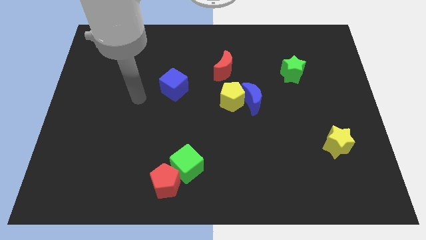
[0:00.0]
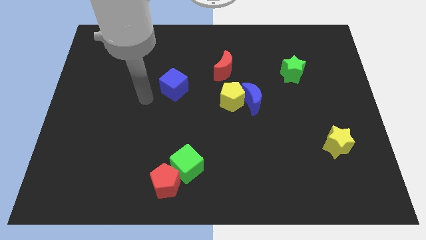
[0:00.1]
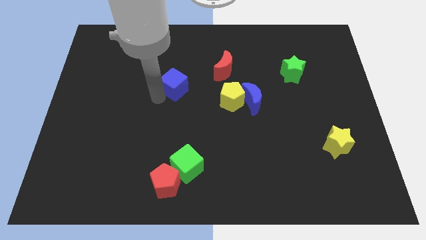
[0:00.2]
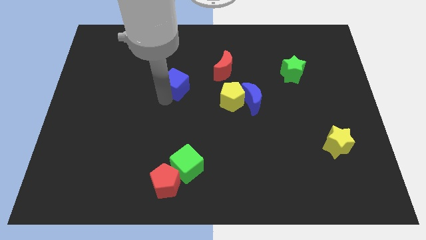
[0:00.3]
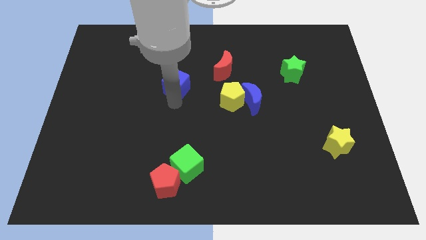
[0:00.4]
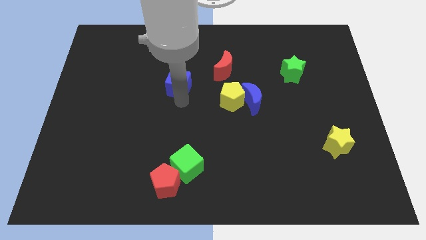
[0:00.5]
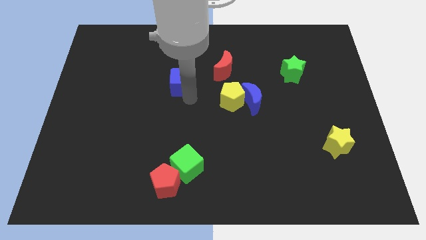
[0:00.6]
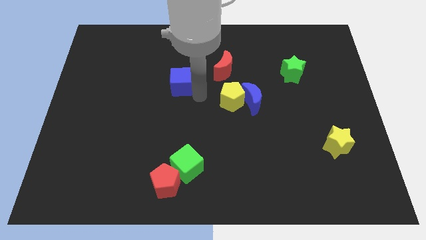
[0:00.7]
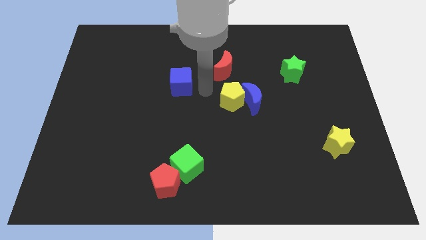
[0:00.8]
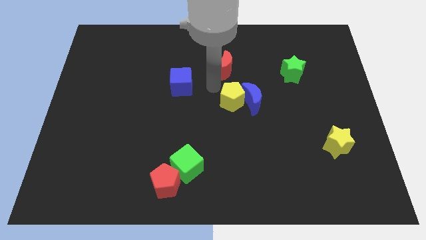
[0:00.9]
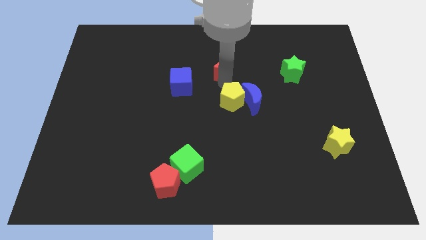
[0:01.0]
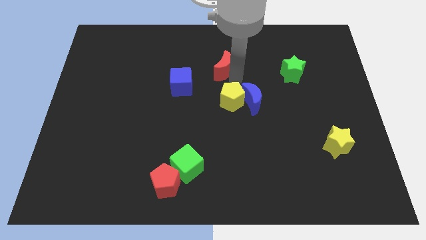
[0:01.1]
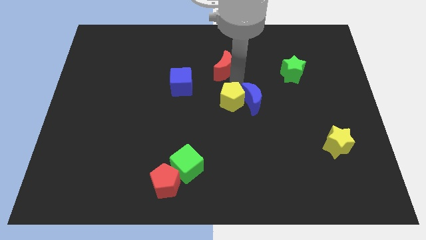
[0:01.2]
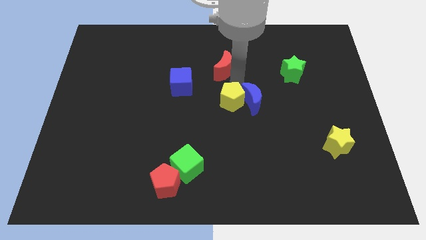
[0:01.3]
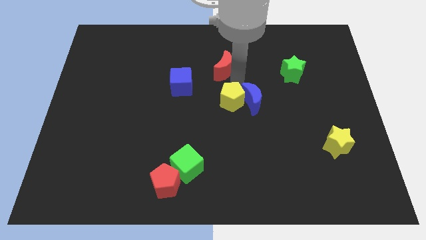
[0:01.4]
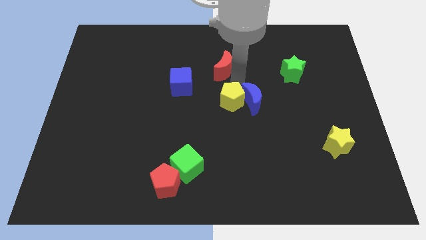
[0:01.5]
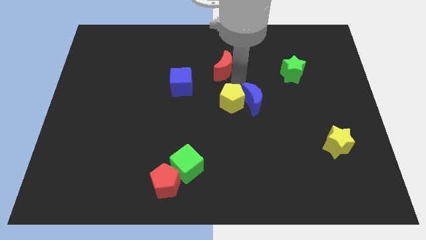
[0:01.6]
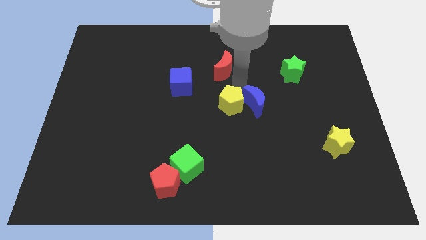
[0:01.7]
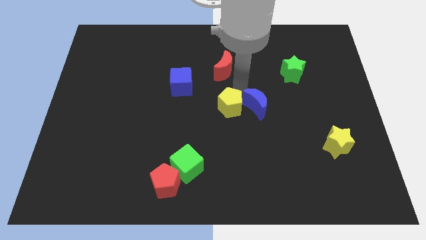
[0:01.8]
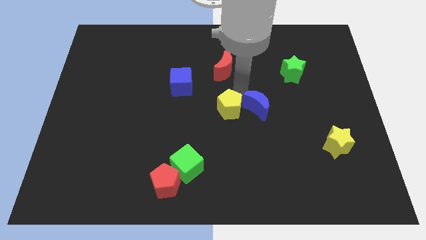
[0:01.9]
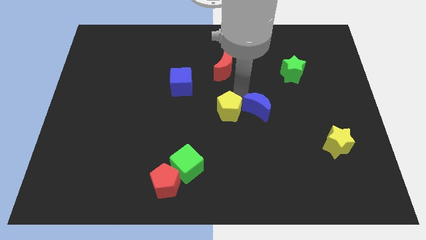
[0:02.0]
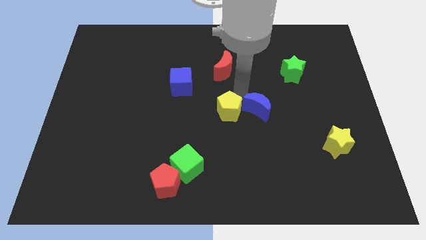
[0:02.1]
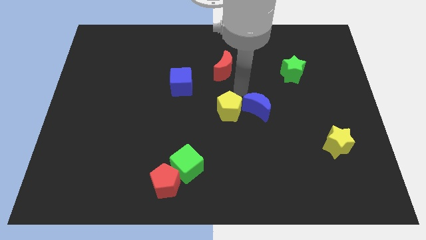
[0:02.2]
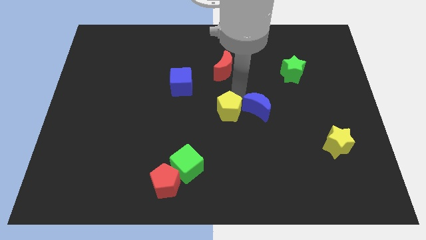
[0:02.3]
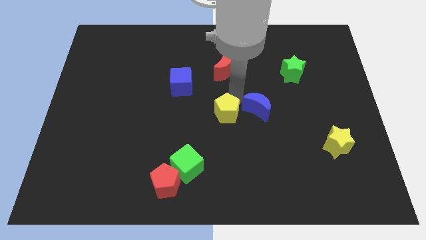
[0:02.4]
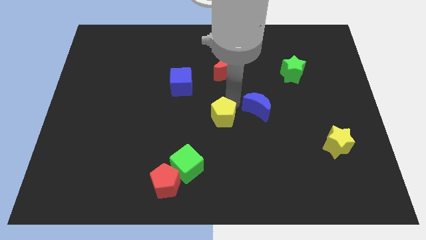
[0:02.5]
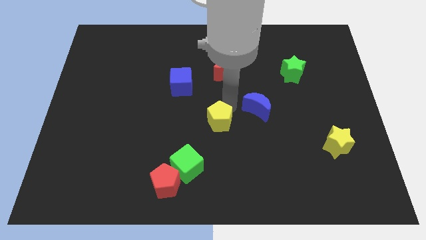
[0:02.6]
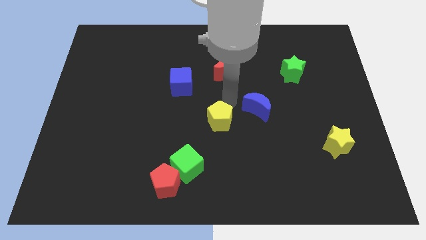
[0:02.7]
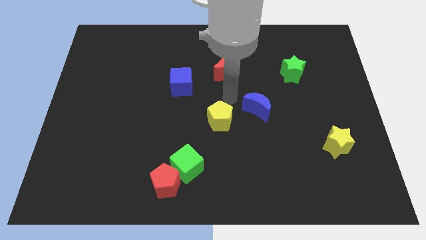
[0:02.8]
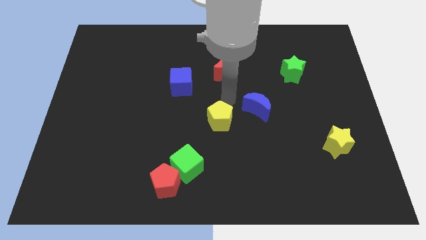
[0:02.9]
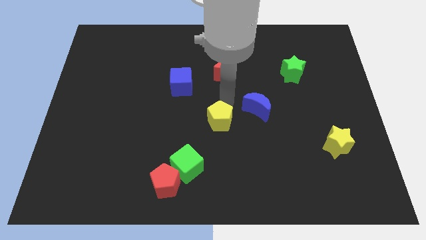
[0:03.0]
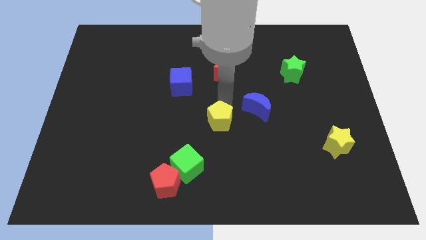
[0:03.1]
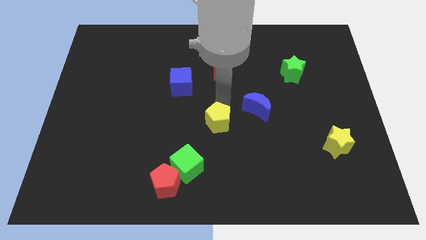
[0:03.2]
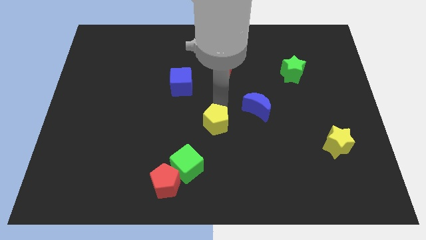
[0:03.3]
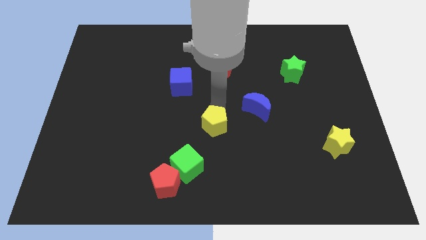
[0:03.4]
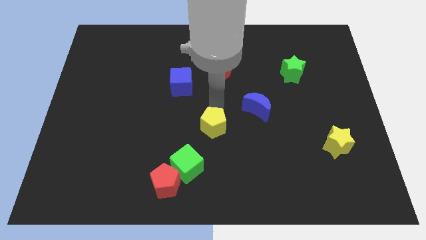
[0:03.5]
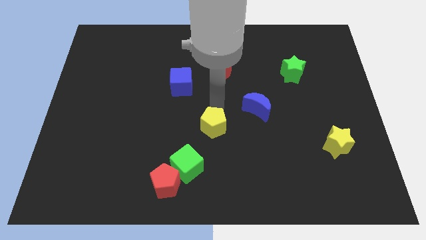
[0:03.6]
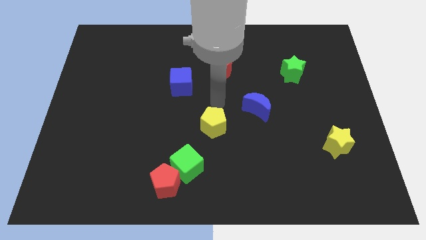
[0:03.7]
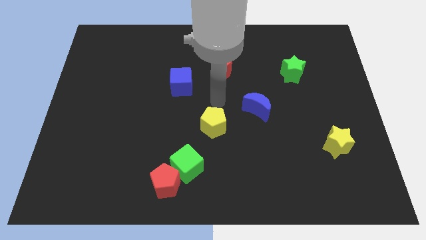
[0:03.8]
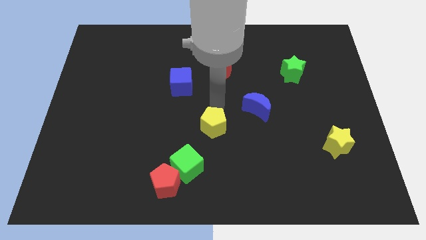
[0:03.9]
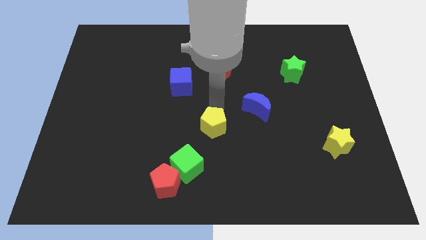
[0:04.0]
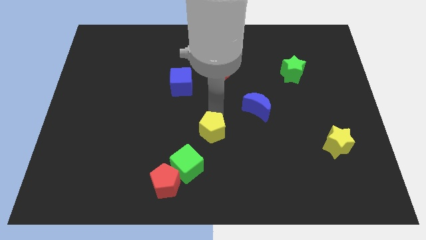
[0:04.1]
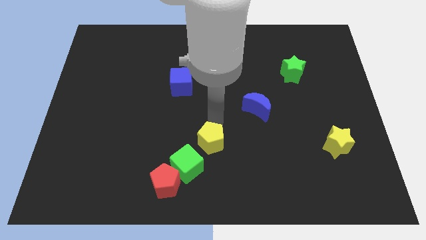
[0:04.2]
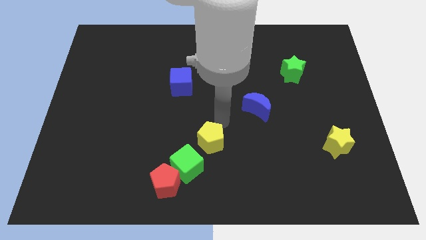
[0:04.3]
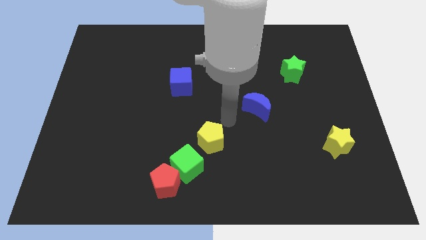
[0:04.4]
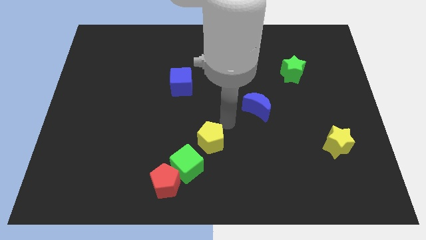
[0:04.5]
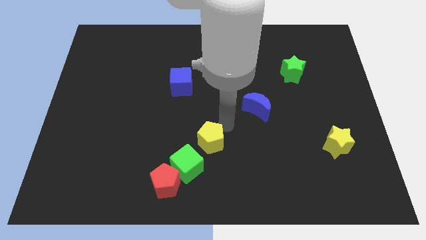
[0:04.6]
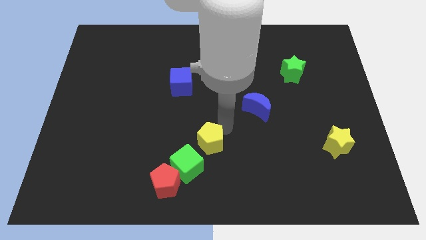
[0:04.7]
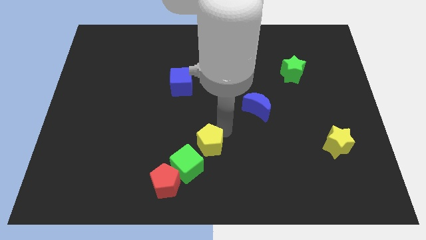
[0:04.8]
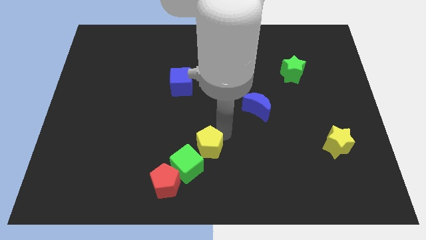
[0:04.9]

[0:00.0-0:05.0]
slide the yellow pentagon diagonally up and to the right of the red pentagon

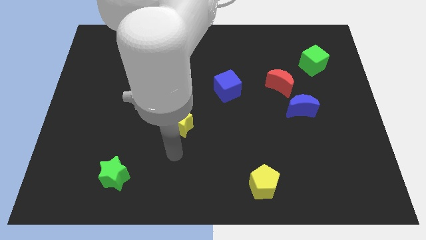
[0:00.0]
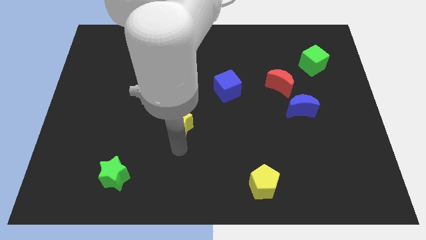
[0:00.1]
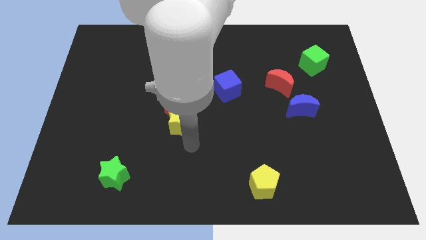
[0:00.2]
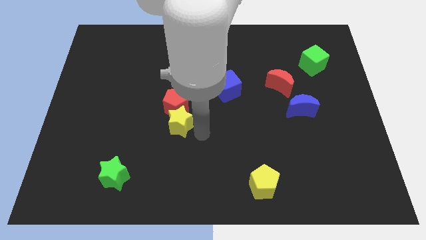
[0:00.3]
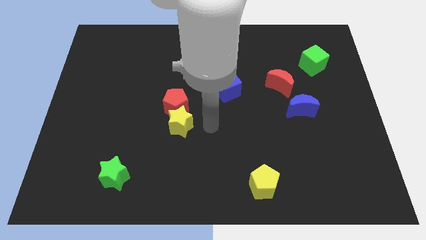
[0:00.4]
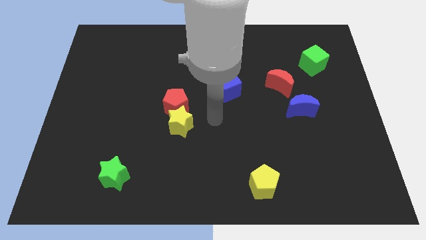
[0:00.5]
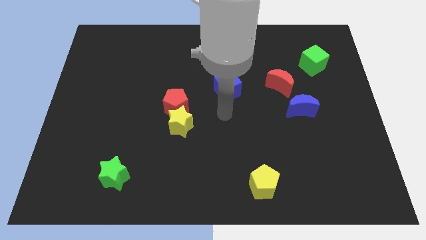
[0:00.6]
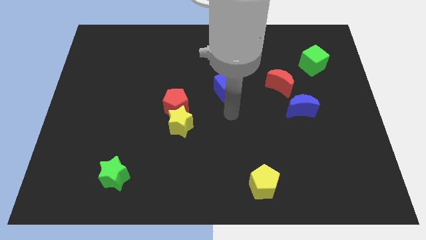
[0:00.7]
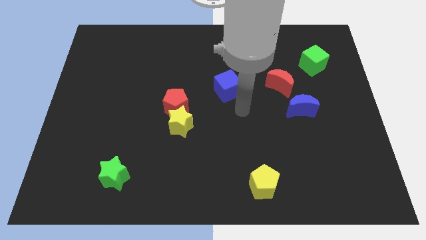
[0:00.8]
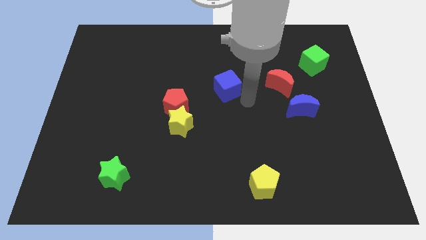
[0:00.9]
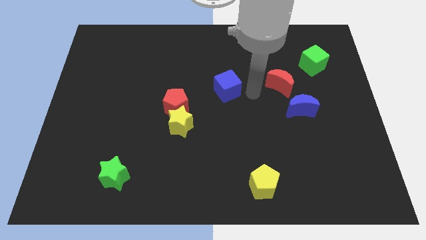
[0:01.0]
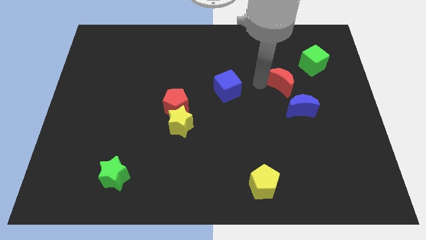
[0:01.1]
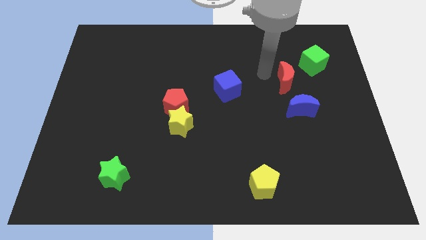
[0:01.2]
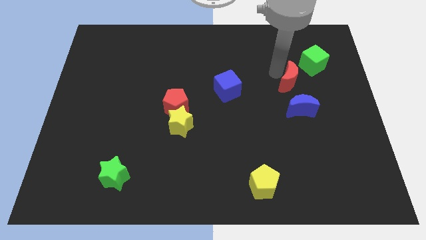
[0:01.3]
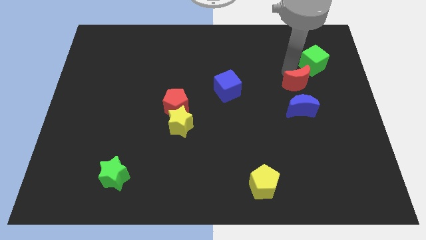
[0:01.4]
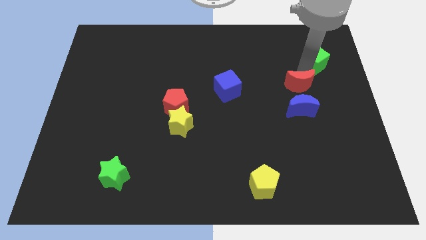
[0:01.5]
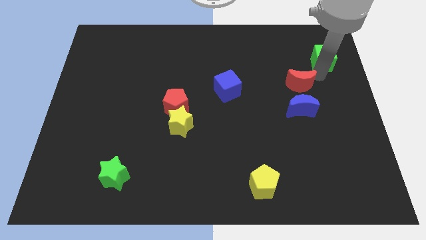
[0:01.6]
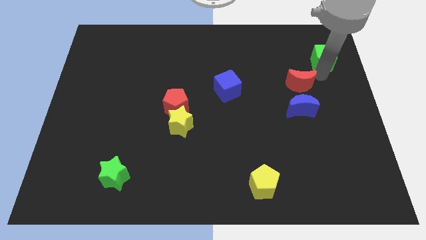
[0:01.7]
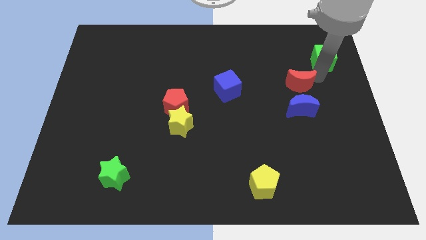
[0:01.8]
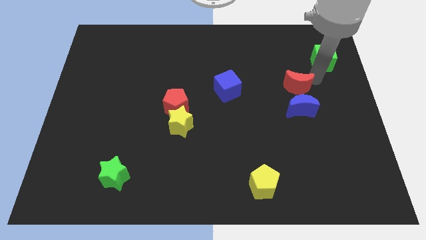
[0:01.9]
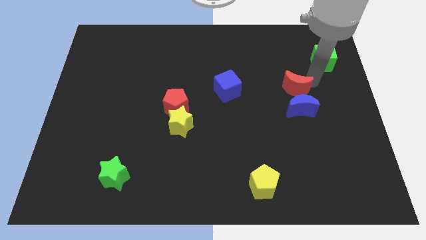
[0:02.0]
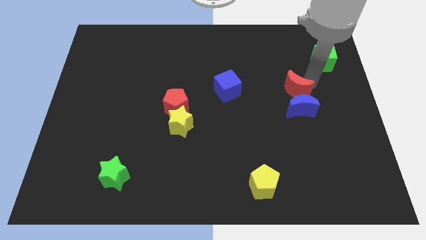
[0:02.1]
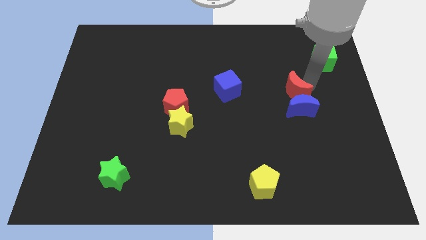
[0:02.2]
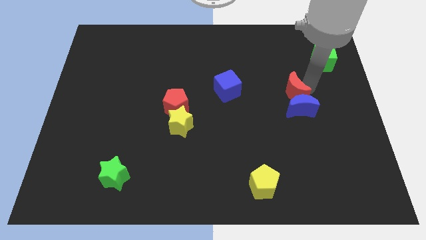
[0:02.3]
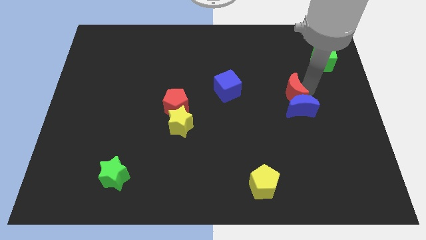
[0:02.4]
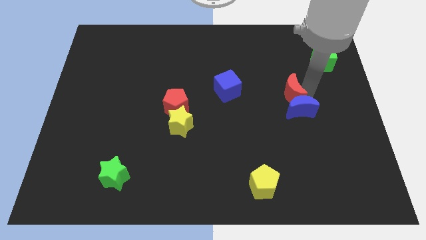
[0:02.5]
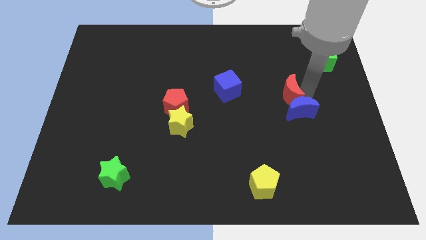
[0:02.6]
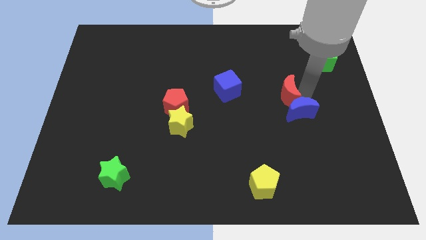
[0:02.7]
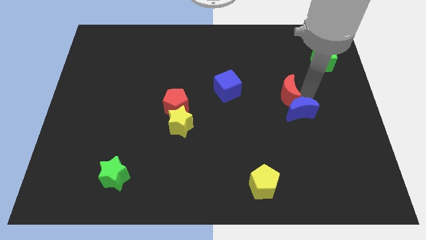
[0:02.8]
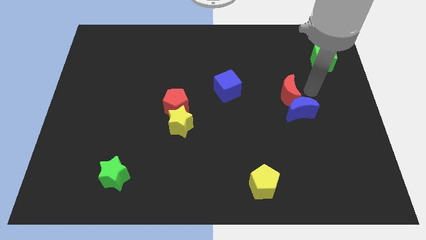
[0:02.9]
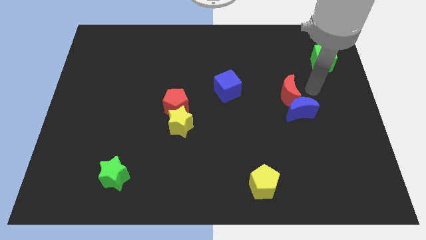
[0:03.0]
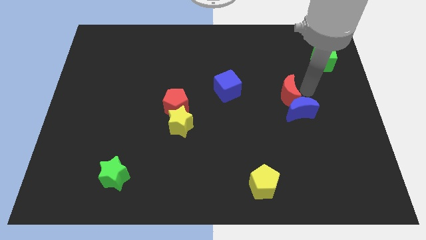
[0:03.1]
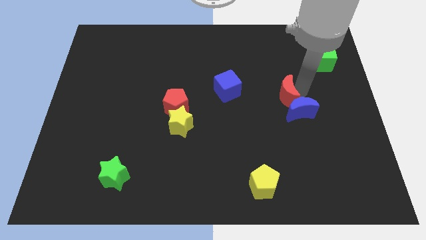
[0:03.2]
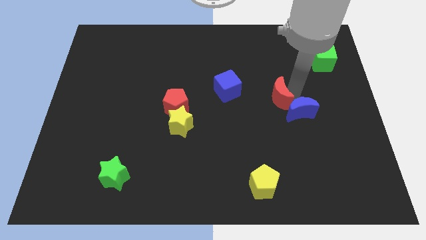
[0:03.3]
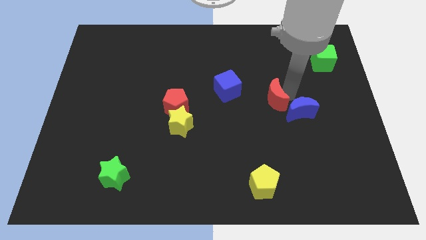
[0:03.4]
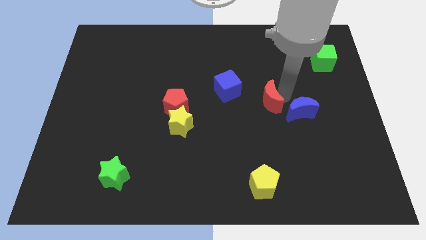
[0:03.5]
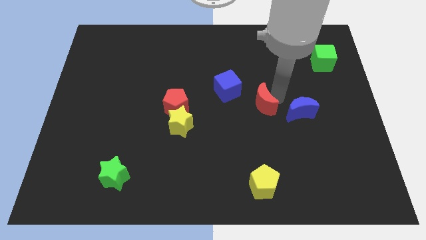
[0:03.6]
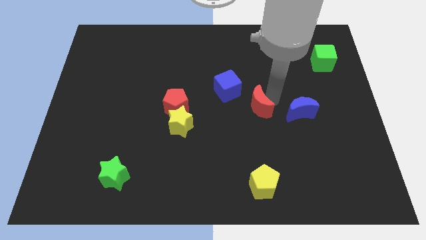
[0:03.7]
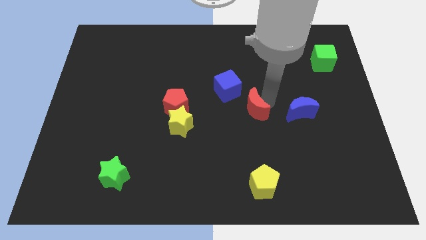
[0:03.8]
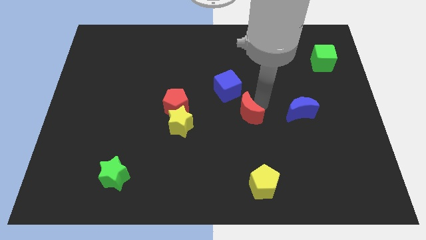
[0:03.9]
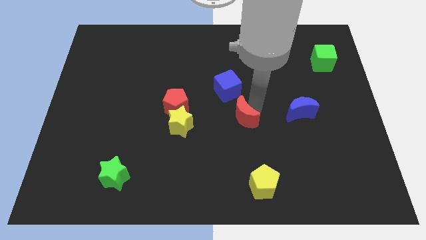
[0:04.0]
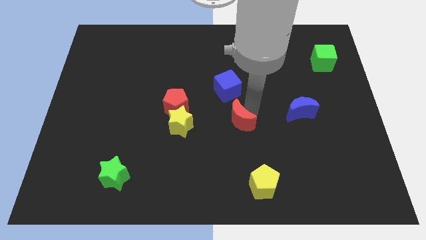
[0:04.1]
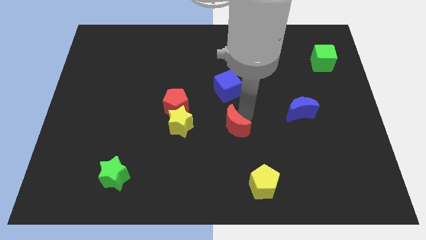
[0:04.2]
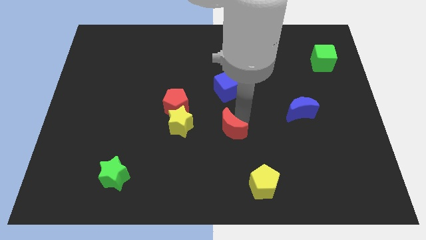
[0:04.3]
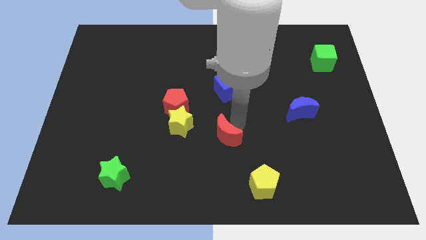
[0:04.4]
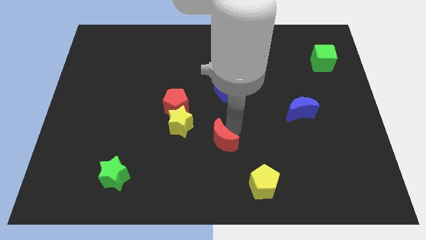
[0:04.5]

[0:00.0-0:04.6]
put the red moon diagonally down and to the right of the yellow star
